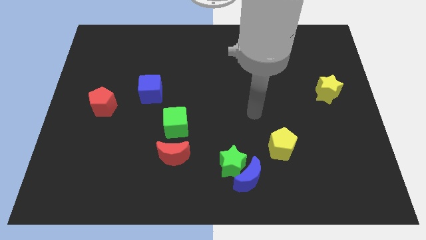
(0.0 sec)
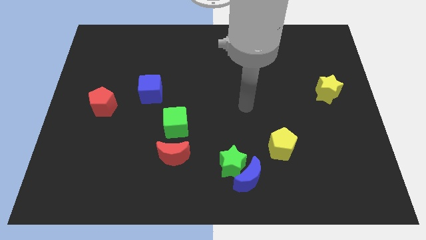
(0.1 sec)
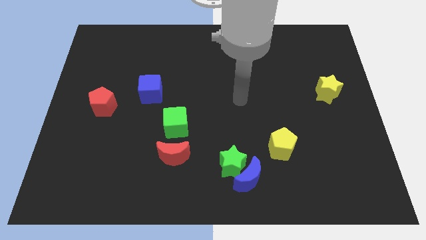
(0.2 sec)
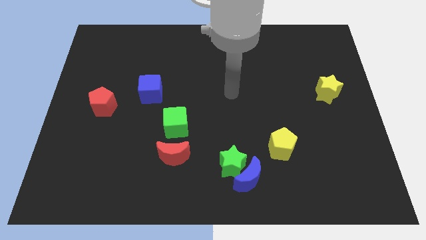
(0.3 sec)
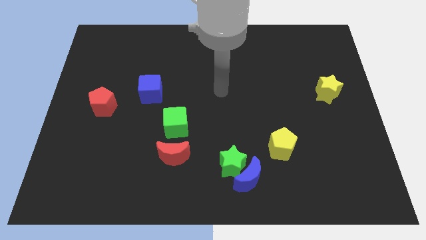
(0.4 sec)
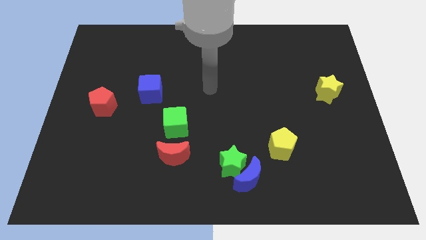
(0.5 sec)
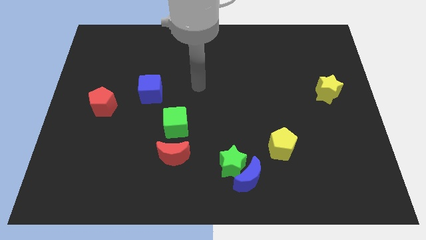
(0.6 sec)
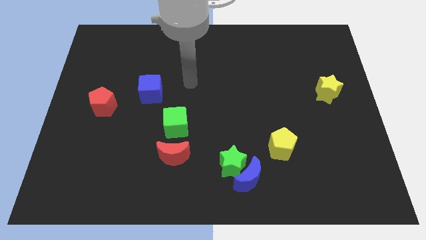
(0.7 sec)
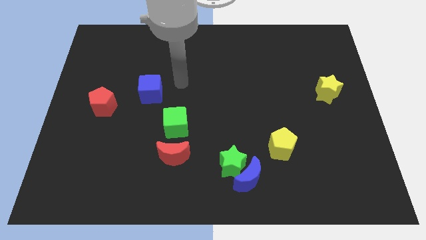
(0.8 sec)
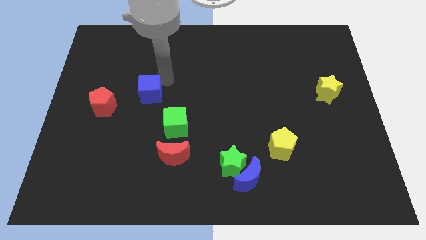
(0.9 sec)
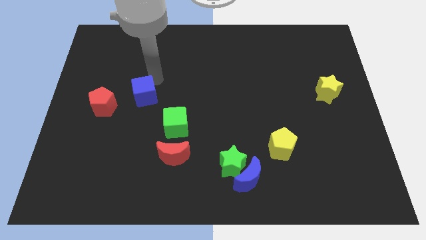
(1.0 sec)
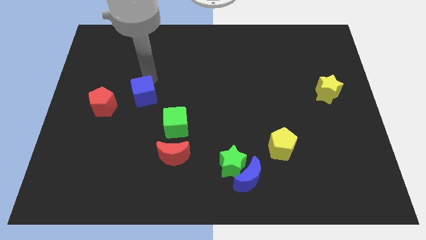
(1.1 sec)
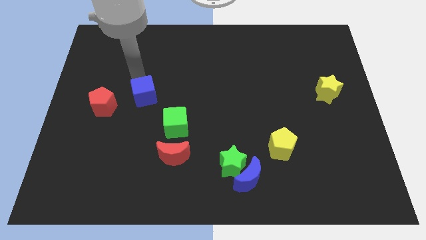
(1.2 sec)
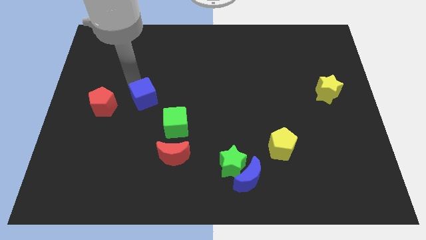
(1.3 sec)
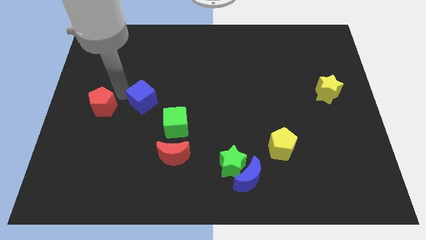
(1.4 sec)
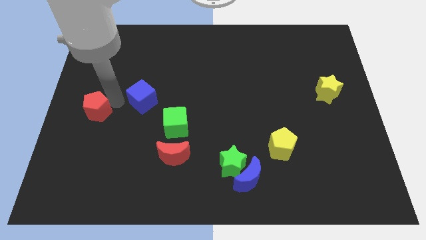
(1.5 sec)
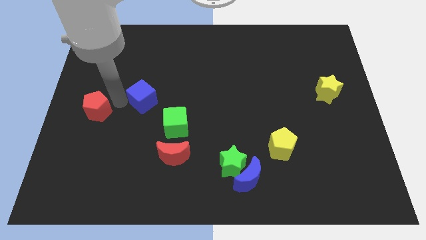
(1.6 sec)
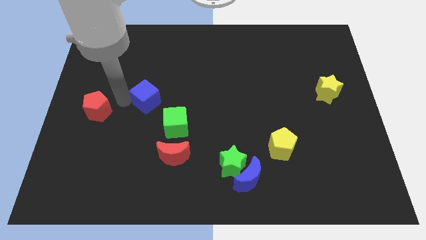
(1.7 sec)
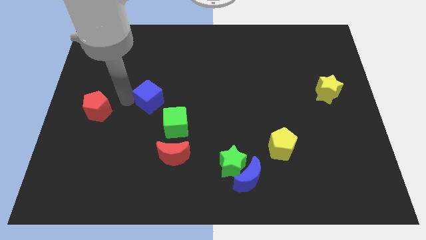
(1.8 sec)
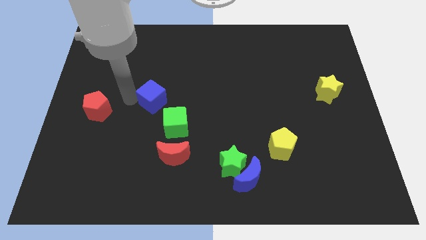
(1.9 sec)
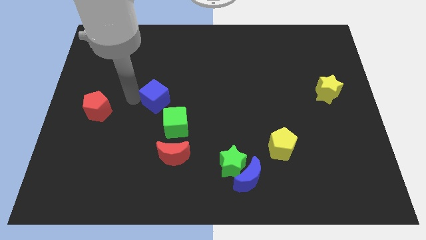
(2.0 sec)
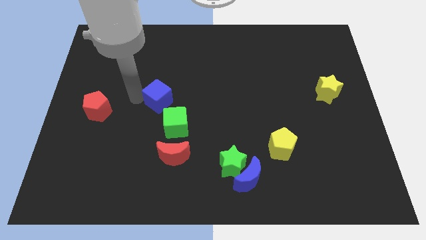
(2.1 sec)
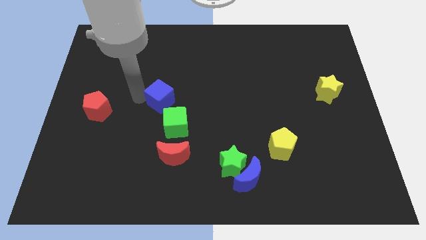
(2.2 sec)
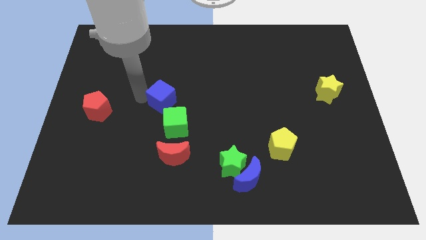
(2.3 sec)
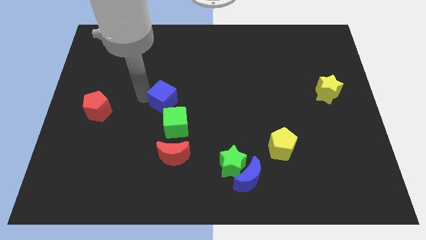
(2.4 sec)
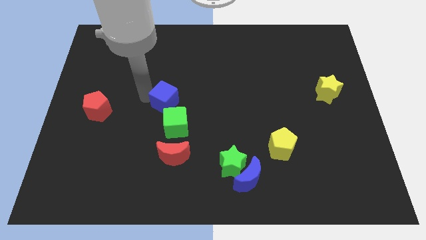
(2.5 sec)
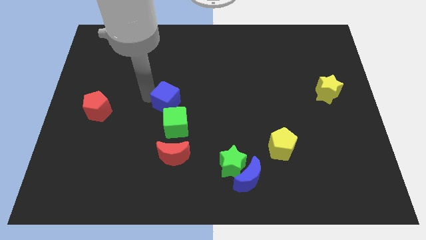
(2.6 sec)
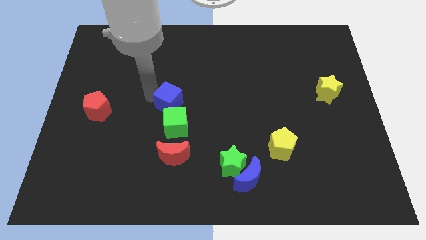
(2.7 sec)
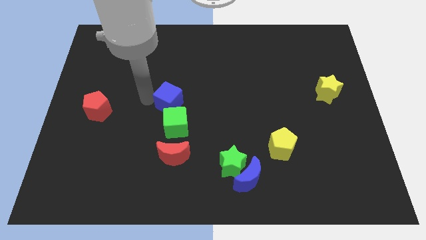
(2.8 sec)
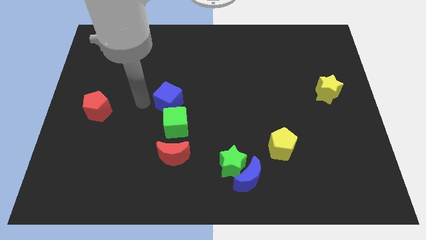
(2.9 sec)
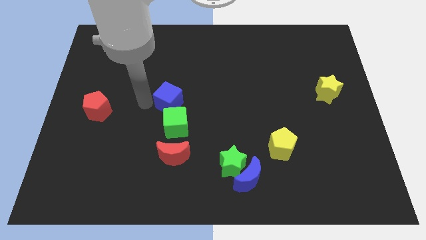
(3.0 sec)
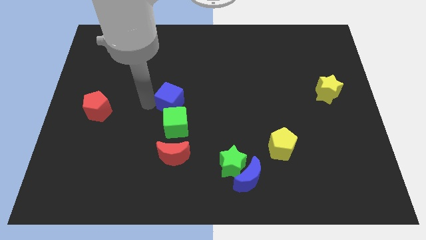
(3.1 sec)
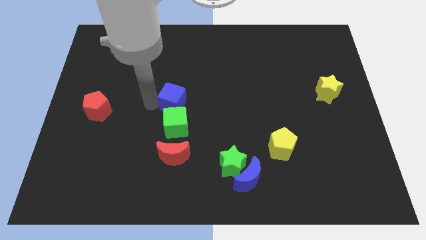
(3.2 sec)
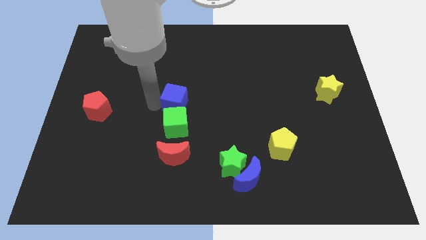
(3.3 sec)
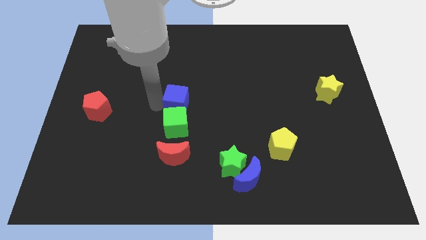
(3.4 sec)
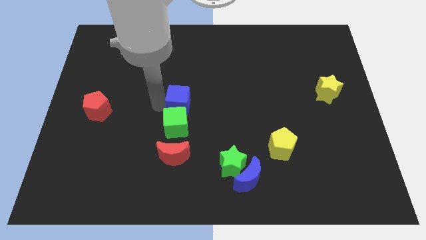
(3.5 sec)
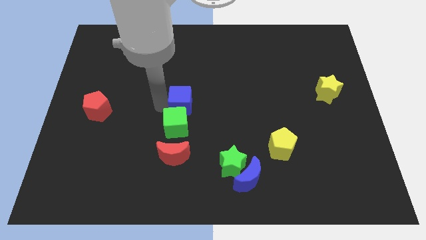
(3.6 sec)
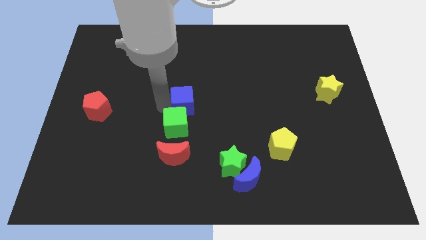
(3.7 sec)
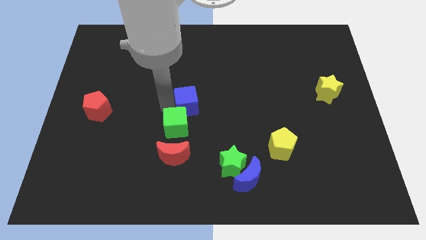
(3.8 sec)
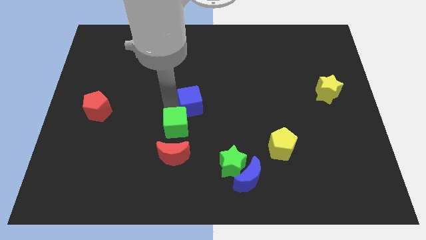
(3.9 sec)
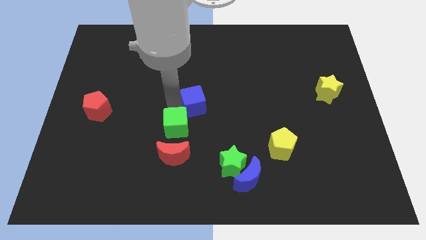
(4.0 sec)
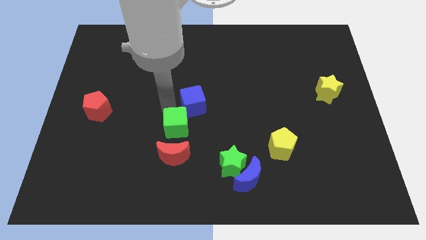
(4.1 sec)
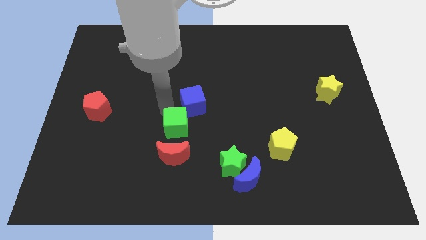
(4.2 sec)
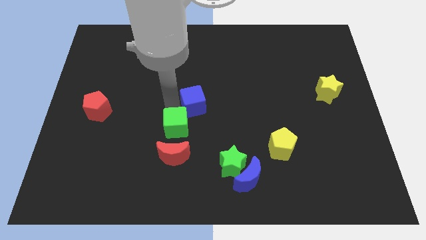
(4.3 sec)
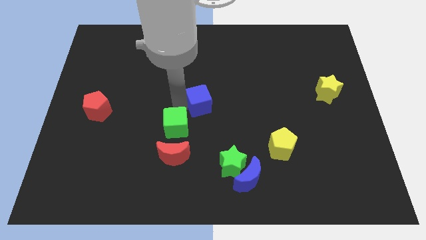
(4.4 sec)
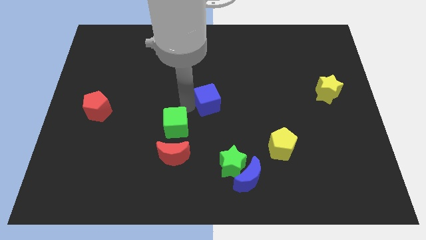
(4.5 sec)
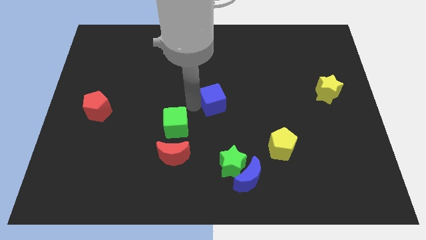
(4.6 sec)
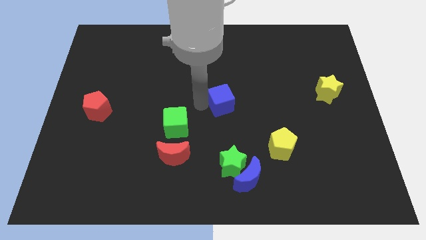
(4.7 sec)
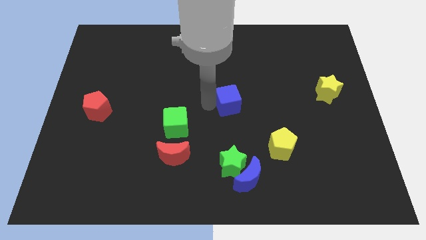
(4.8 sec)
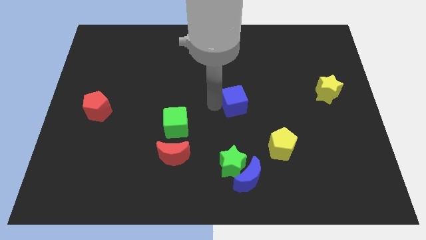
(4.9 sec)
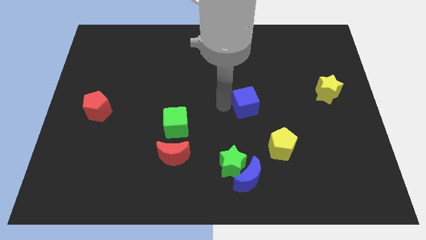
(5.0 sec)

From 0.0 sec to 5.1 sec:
push the blue cube to the right

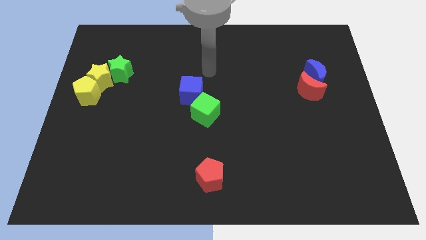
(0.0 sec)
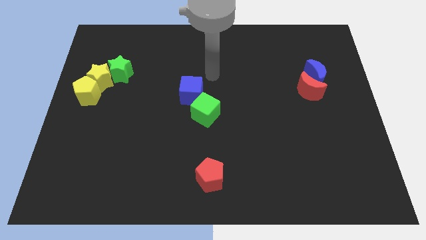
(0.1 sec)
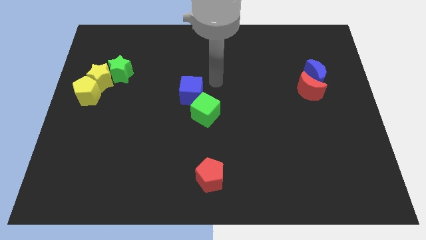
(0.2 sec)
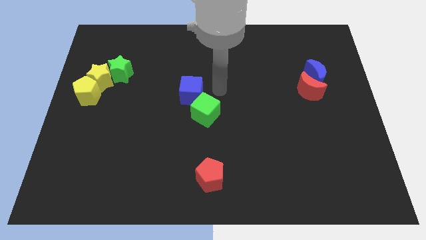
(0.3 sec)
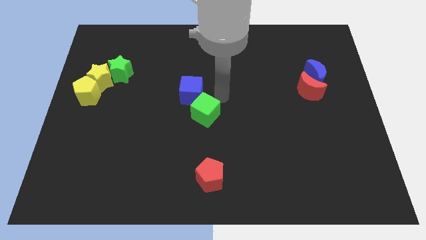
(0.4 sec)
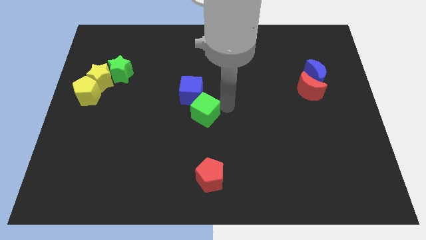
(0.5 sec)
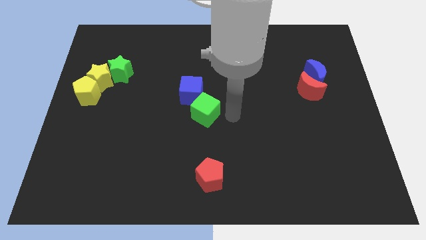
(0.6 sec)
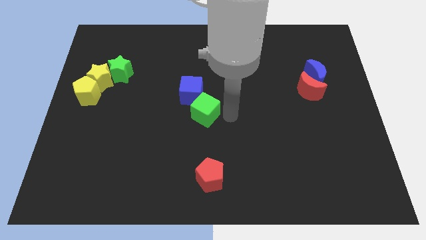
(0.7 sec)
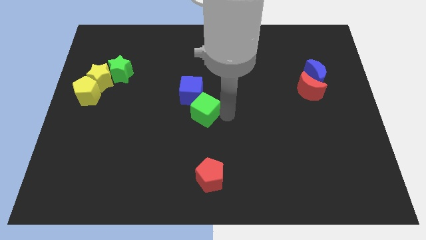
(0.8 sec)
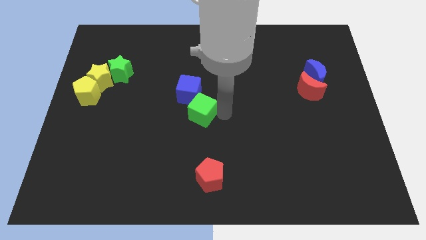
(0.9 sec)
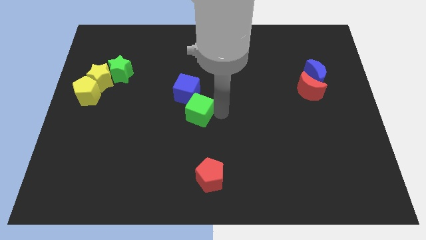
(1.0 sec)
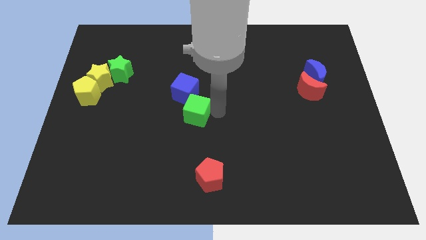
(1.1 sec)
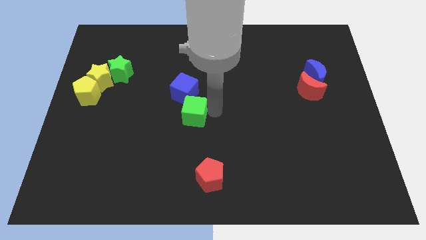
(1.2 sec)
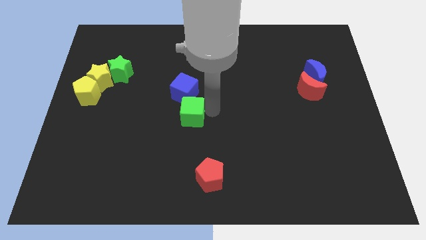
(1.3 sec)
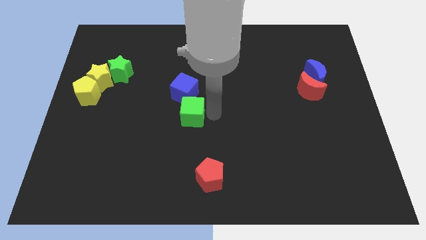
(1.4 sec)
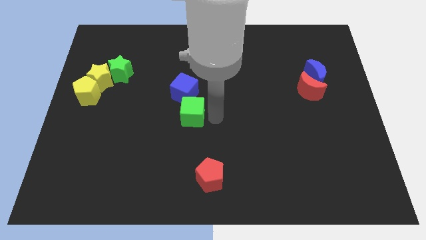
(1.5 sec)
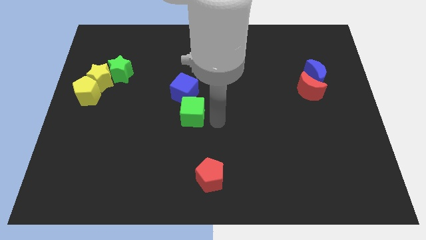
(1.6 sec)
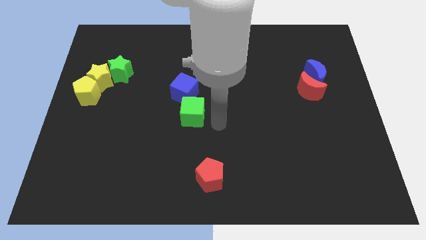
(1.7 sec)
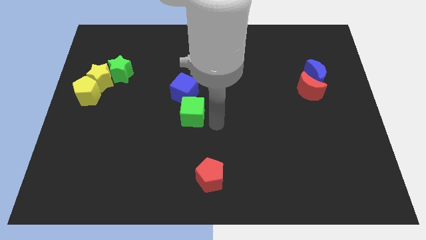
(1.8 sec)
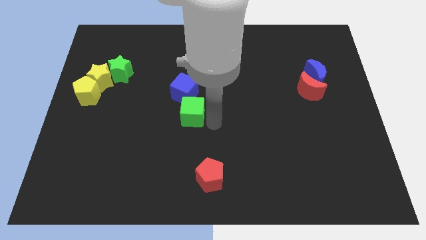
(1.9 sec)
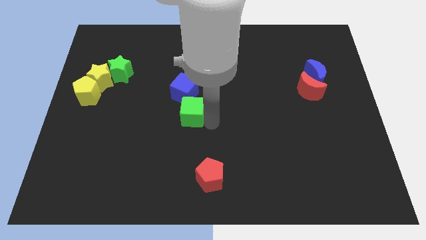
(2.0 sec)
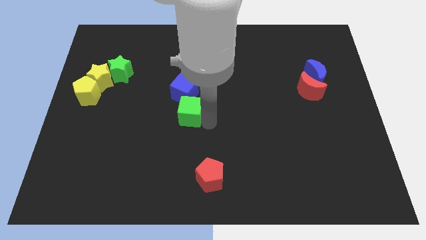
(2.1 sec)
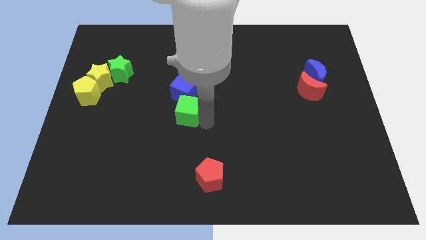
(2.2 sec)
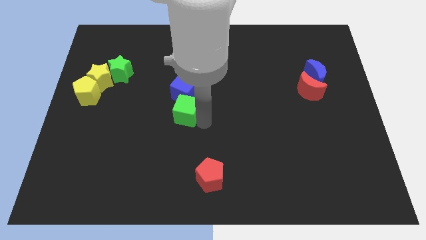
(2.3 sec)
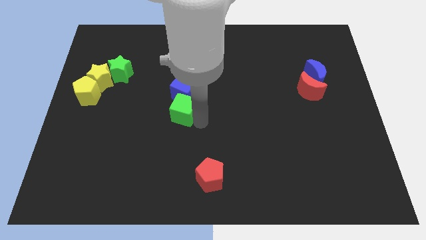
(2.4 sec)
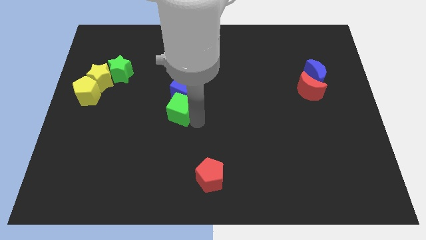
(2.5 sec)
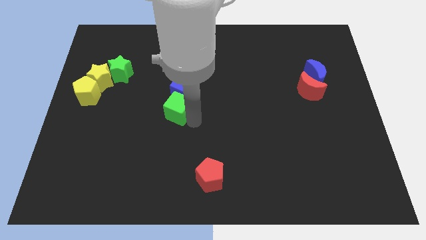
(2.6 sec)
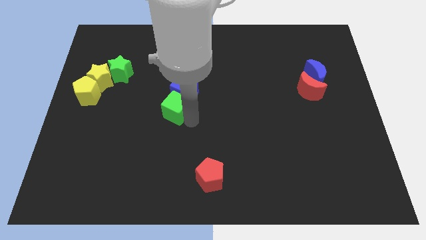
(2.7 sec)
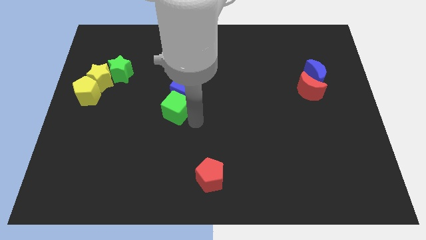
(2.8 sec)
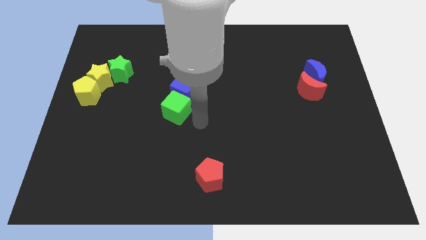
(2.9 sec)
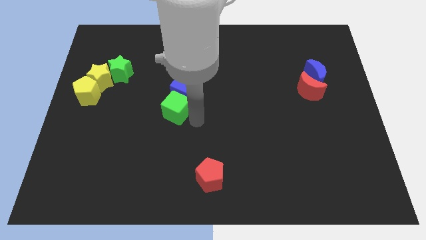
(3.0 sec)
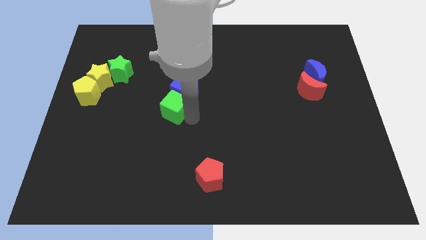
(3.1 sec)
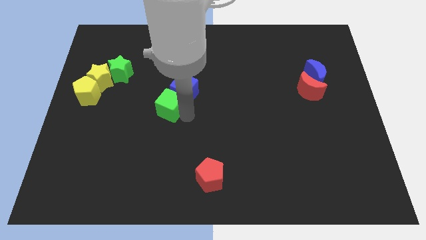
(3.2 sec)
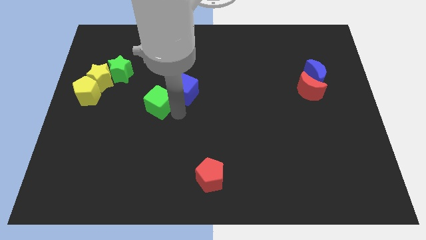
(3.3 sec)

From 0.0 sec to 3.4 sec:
push the green cube slightly upwards and left diagonally
